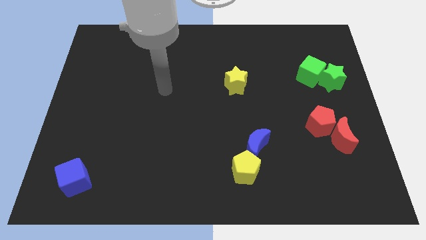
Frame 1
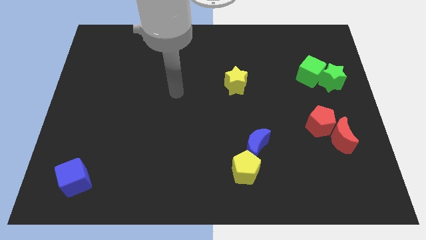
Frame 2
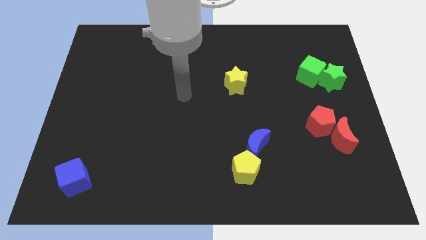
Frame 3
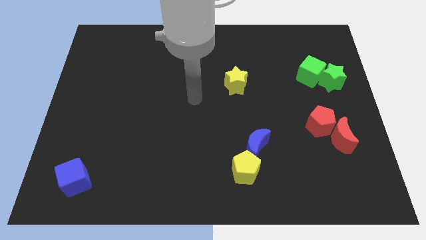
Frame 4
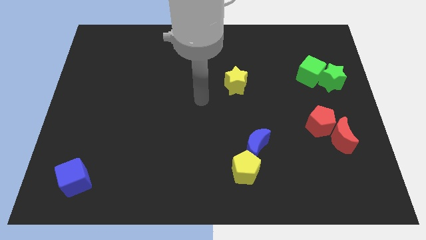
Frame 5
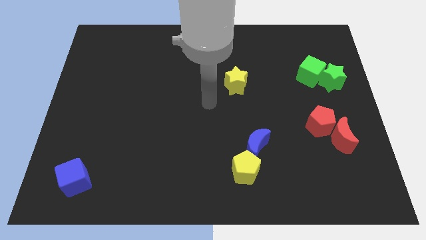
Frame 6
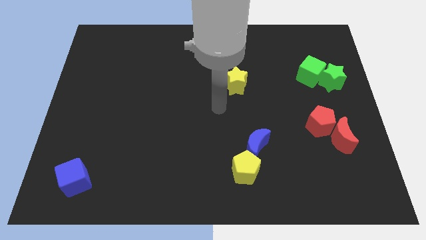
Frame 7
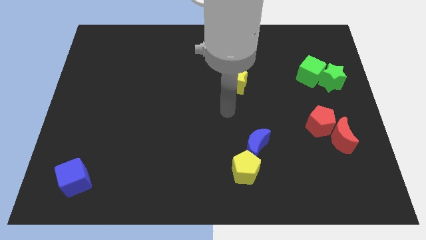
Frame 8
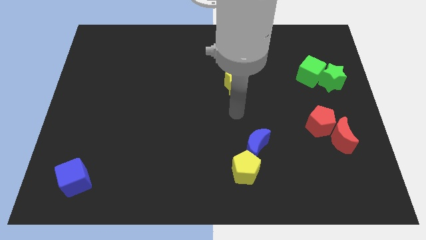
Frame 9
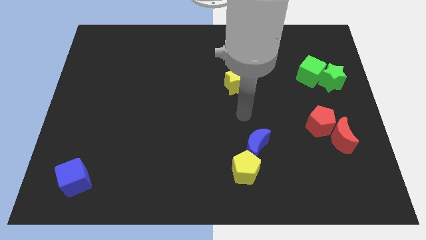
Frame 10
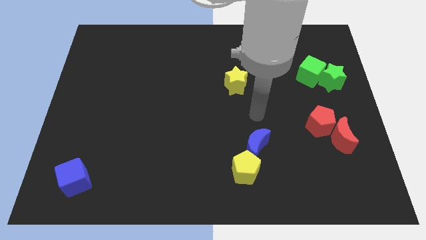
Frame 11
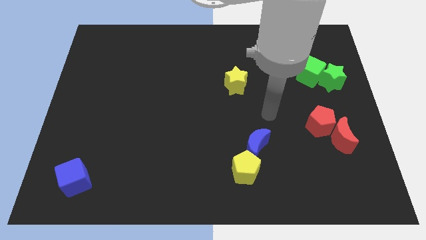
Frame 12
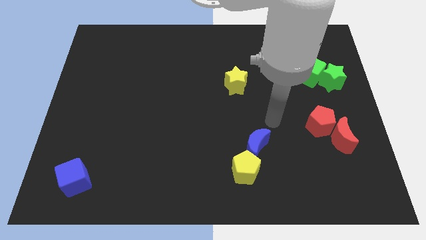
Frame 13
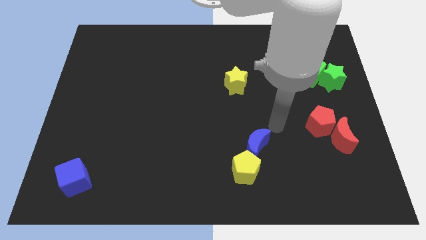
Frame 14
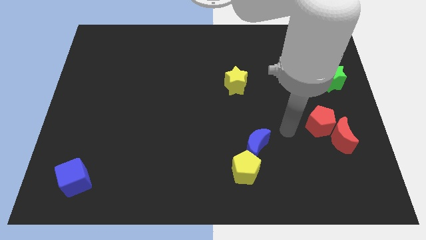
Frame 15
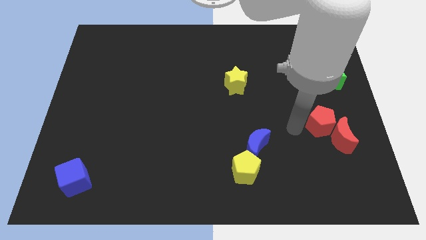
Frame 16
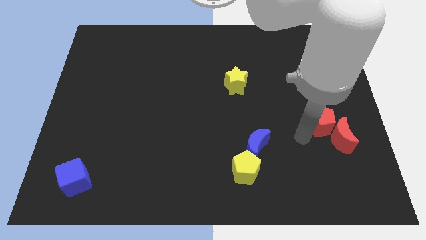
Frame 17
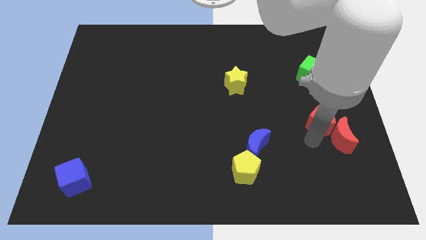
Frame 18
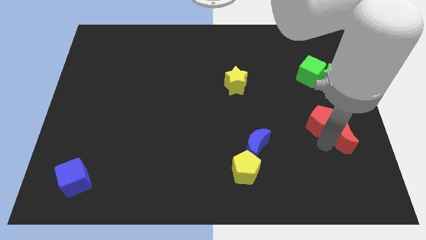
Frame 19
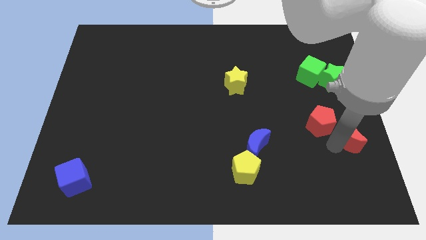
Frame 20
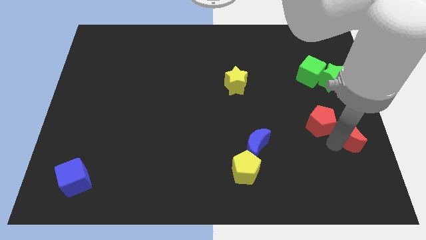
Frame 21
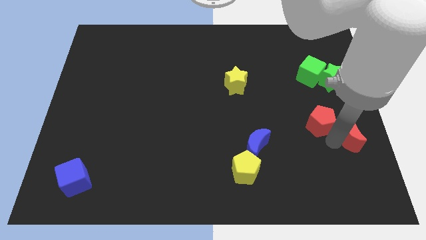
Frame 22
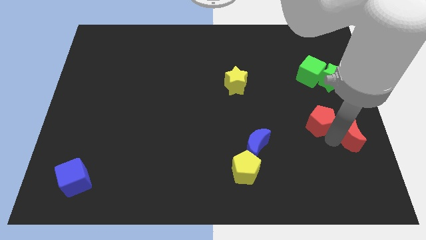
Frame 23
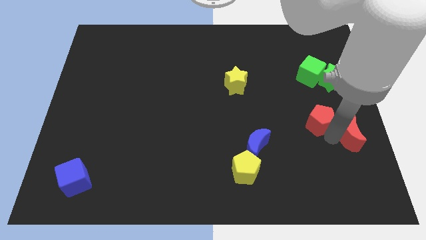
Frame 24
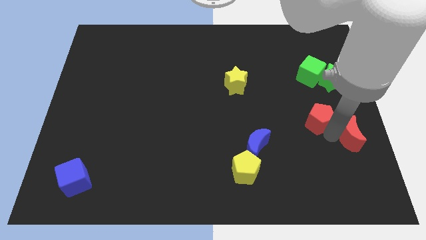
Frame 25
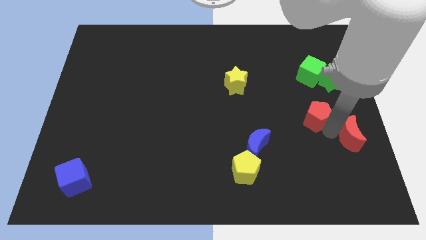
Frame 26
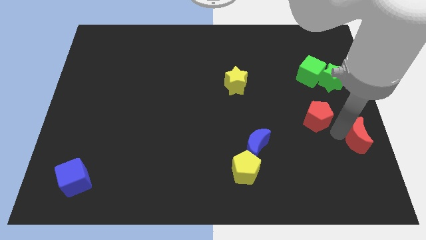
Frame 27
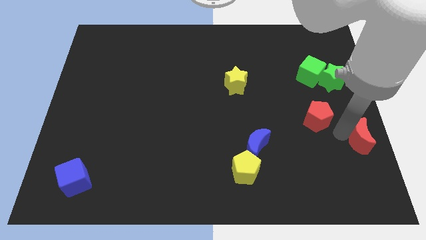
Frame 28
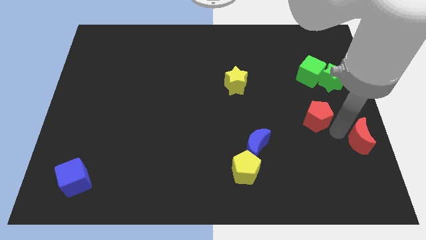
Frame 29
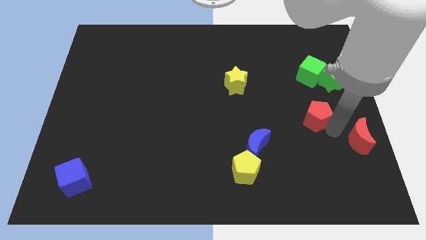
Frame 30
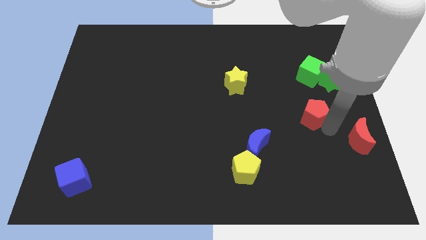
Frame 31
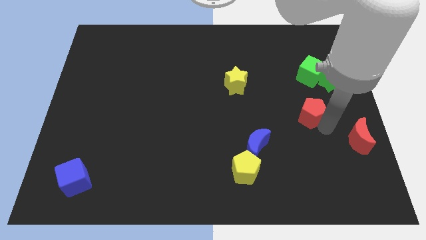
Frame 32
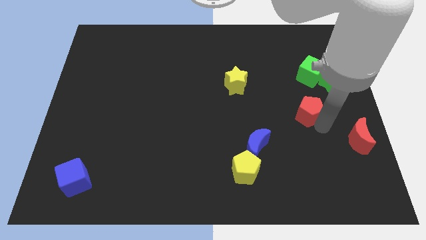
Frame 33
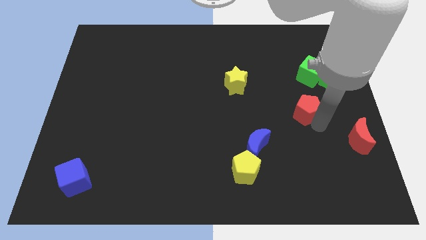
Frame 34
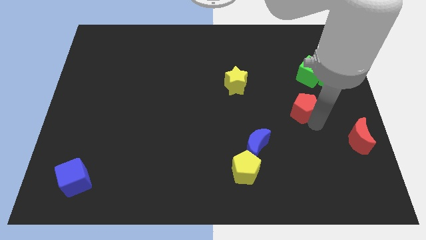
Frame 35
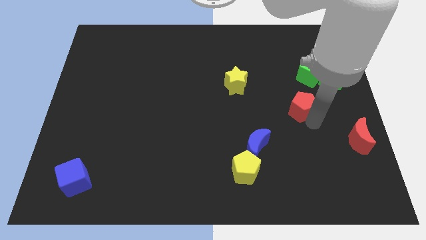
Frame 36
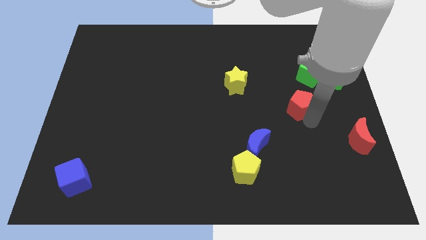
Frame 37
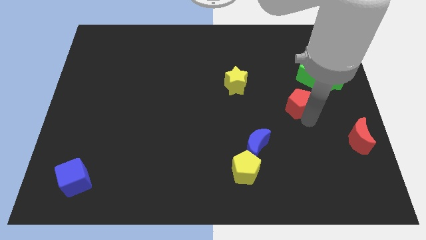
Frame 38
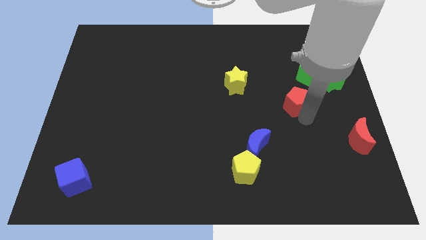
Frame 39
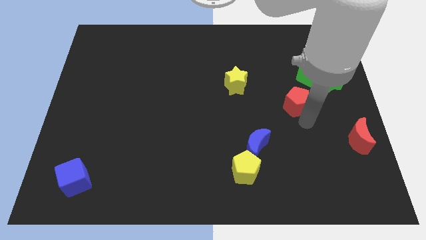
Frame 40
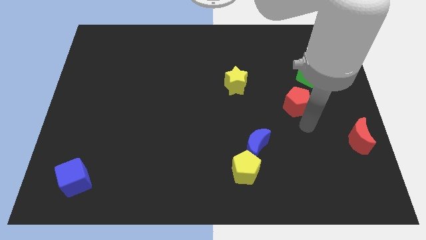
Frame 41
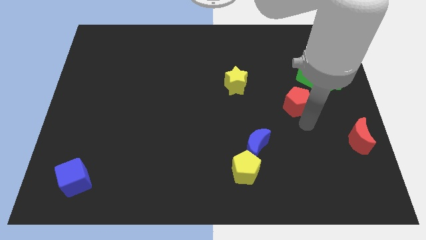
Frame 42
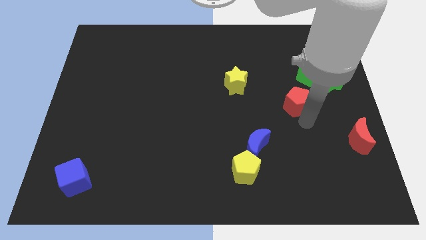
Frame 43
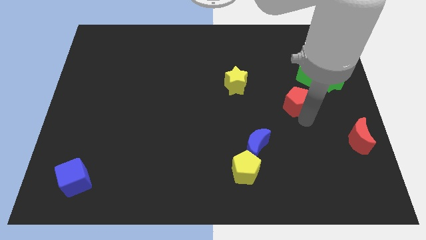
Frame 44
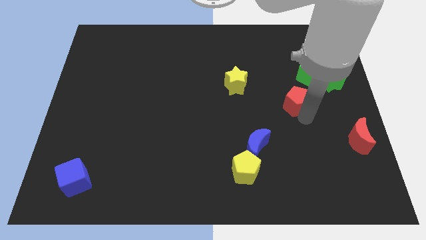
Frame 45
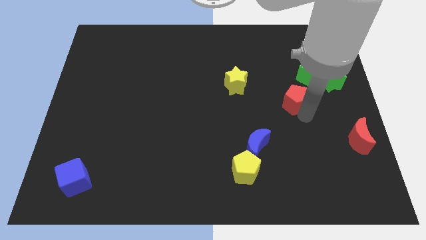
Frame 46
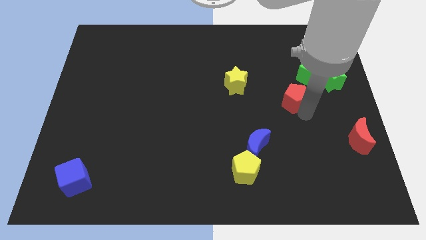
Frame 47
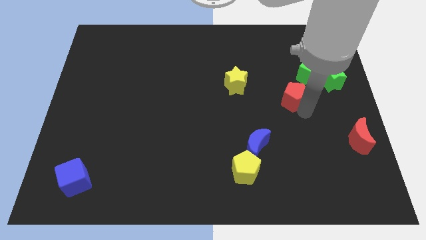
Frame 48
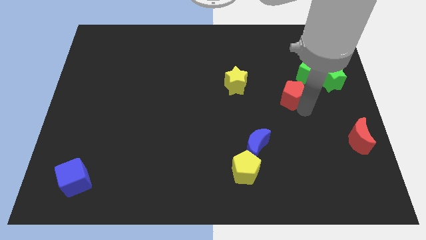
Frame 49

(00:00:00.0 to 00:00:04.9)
slightly move the red pentagon up

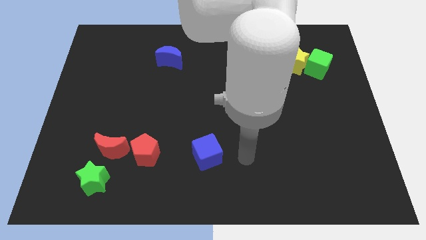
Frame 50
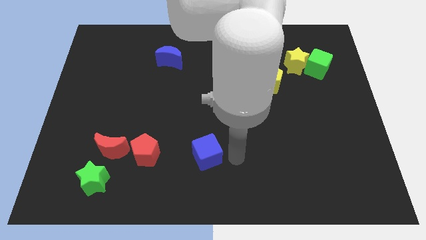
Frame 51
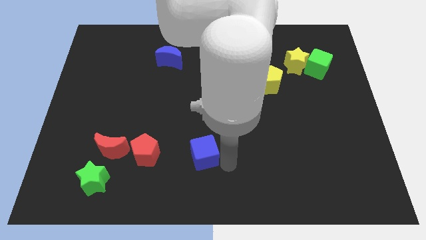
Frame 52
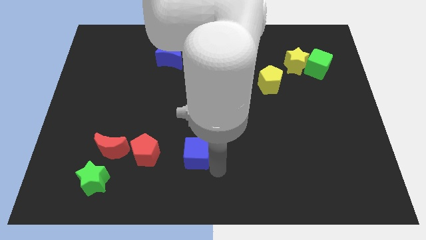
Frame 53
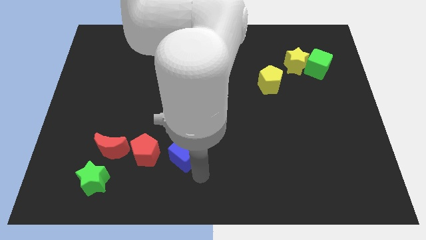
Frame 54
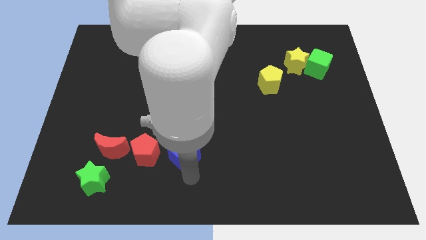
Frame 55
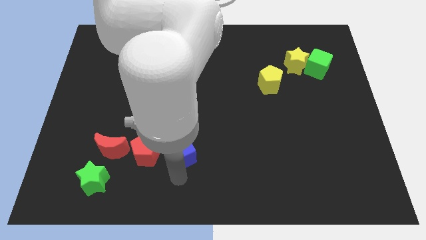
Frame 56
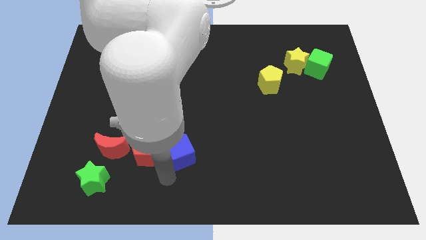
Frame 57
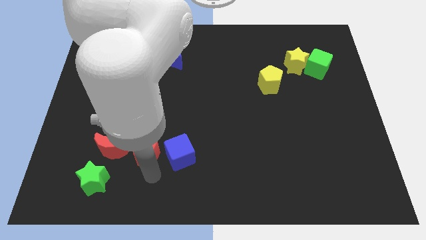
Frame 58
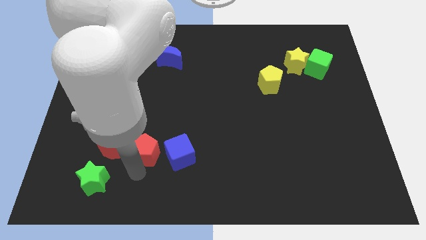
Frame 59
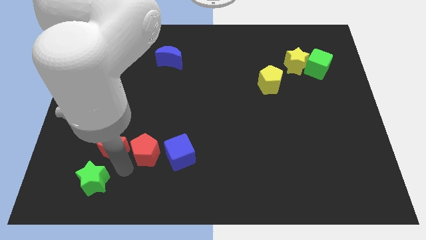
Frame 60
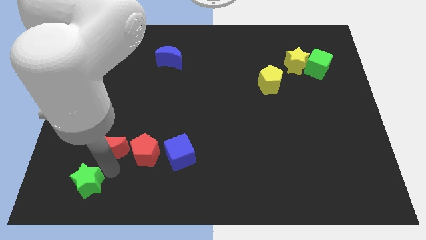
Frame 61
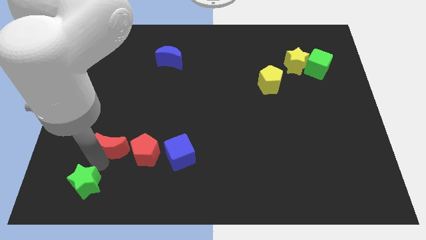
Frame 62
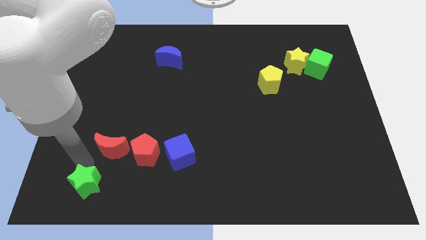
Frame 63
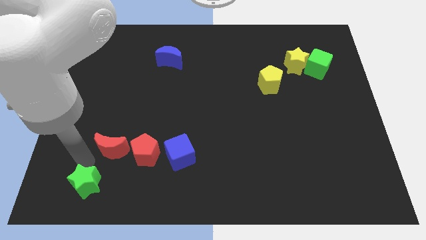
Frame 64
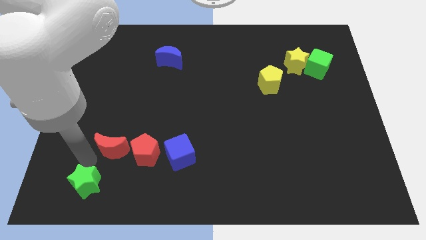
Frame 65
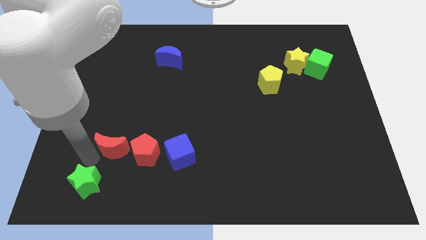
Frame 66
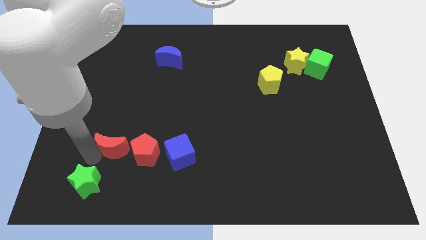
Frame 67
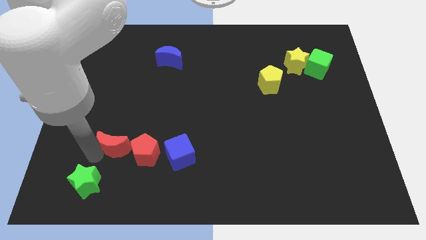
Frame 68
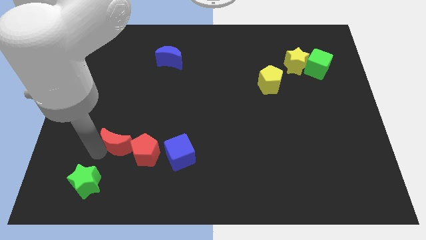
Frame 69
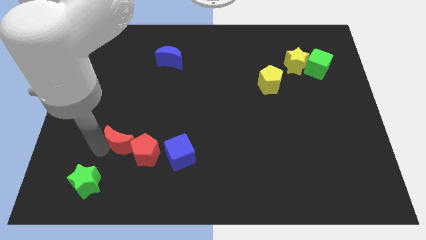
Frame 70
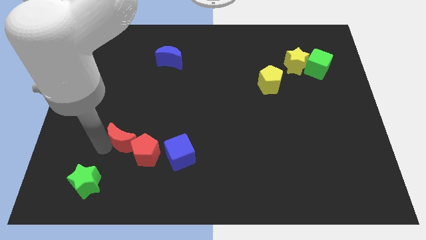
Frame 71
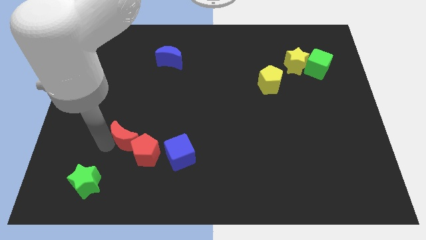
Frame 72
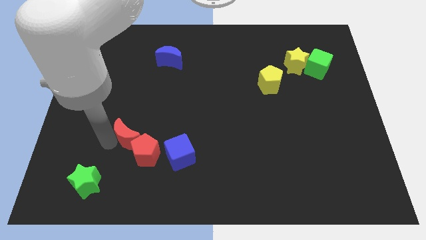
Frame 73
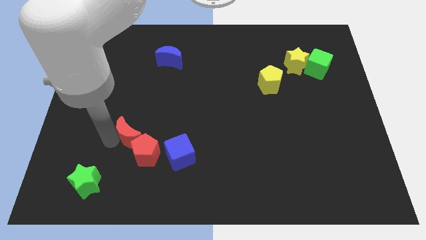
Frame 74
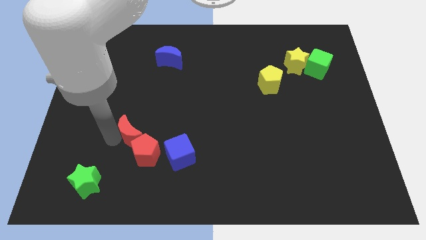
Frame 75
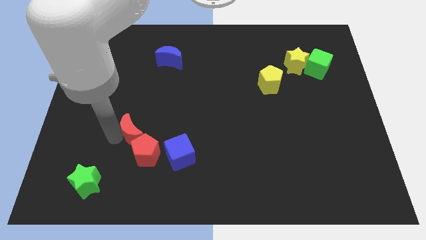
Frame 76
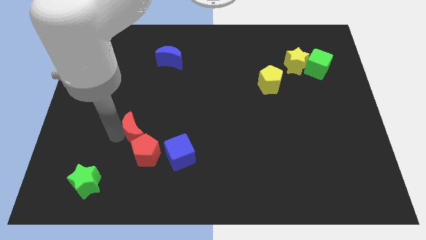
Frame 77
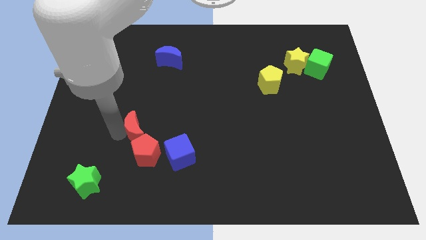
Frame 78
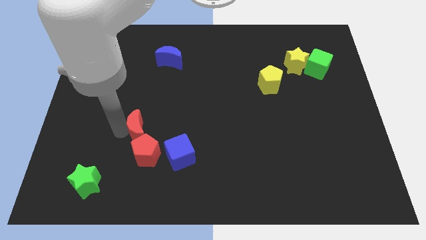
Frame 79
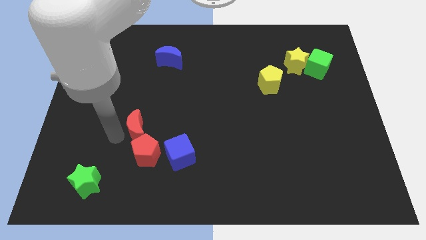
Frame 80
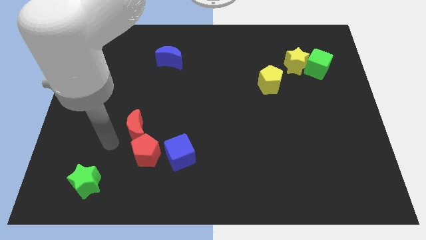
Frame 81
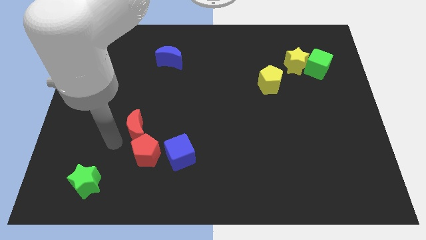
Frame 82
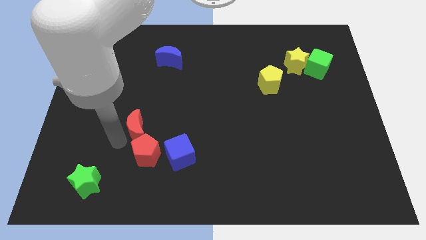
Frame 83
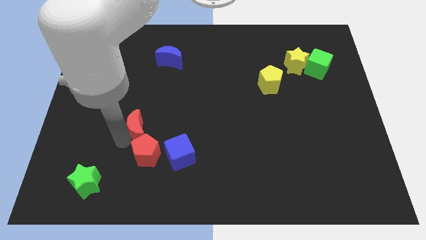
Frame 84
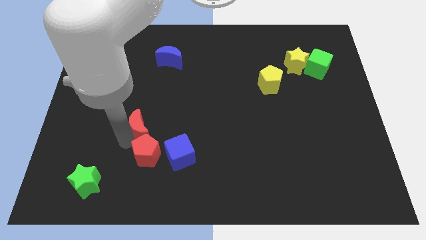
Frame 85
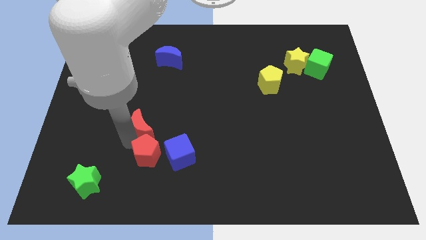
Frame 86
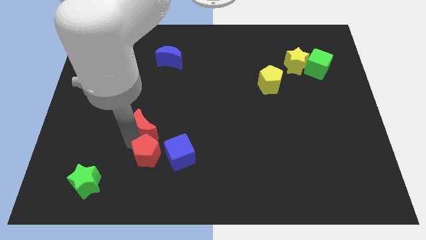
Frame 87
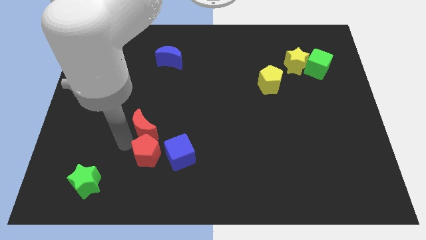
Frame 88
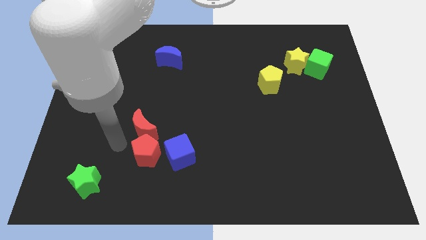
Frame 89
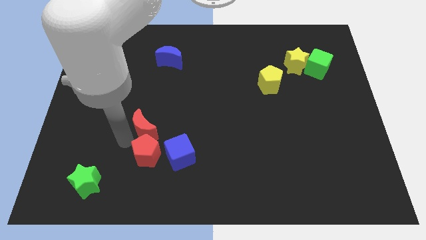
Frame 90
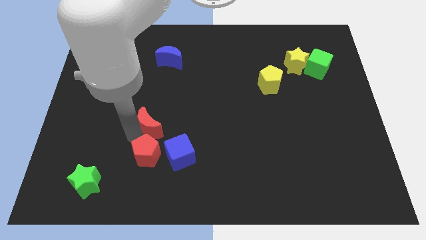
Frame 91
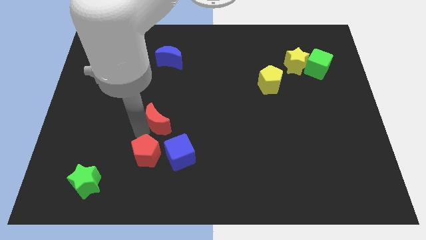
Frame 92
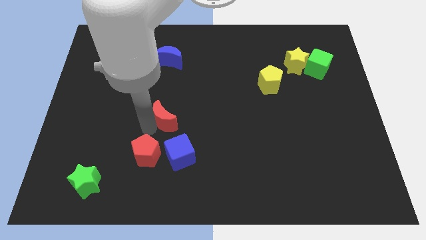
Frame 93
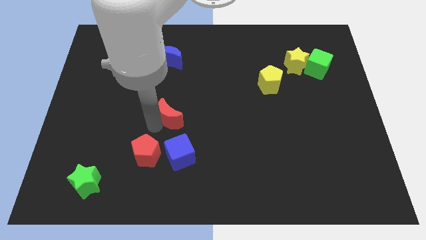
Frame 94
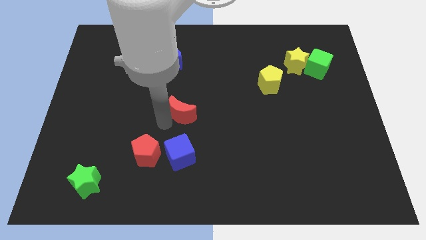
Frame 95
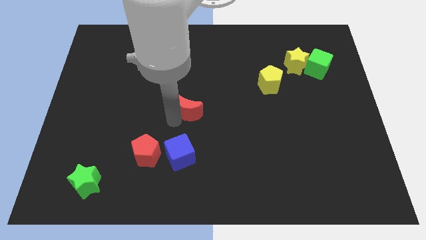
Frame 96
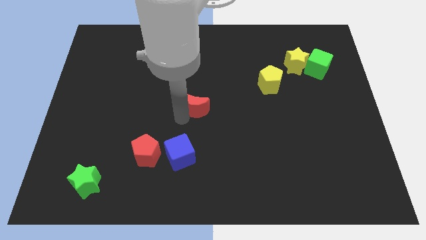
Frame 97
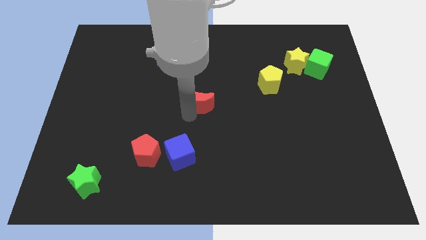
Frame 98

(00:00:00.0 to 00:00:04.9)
move the red moon diagonally upwards and to the right
